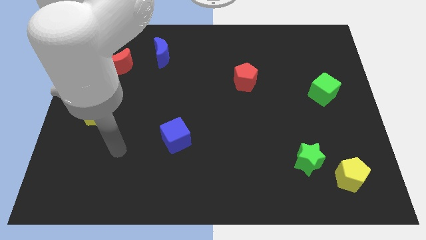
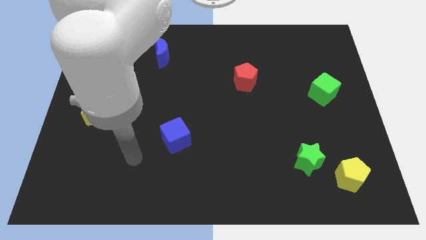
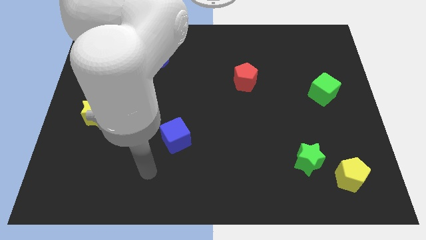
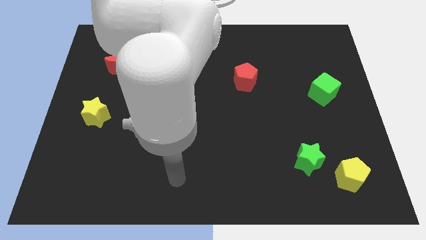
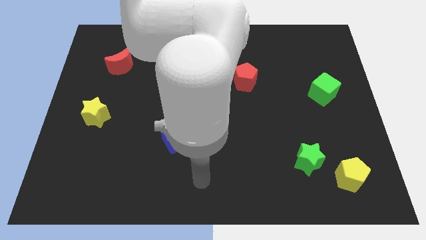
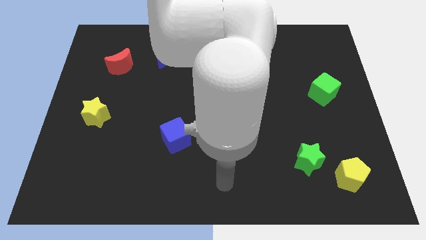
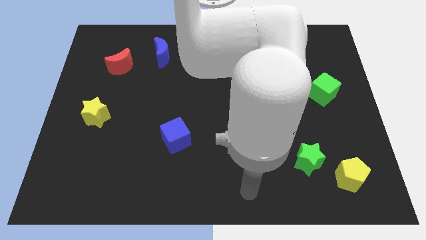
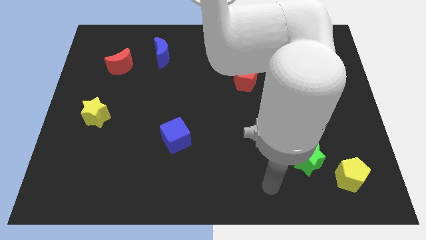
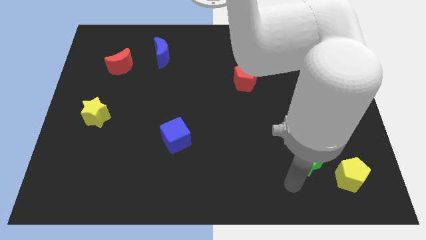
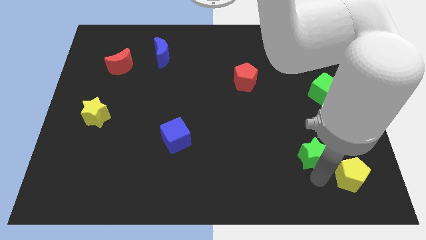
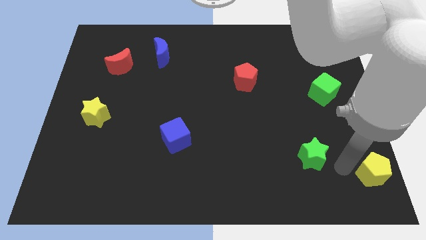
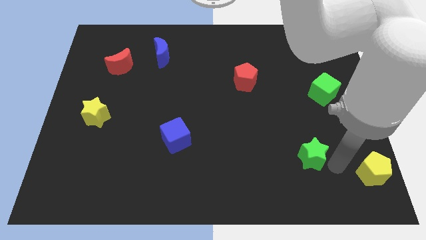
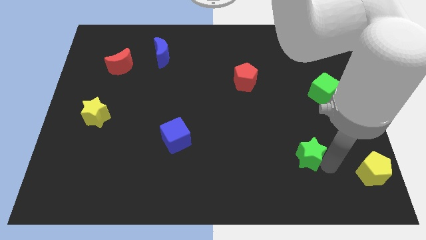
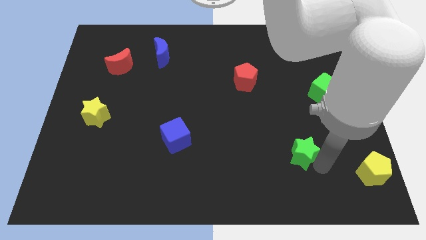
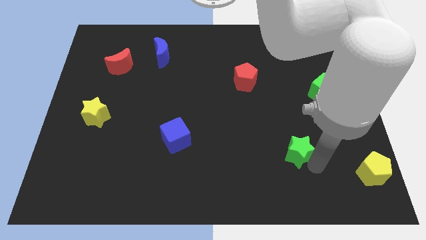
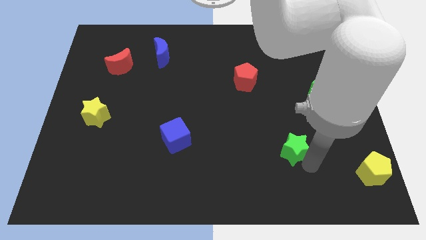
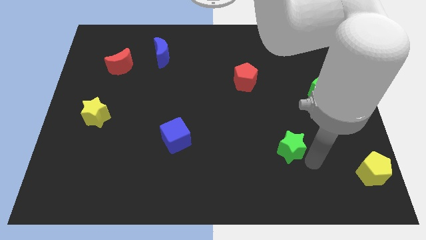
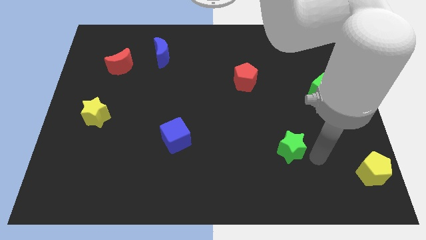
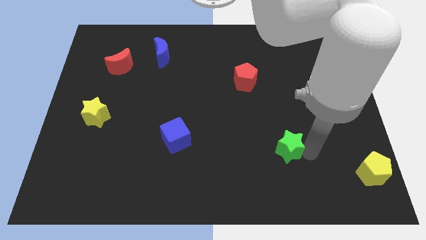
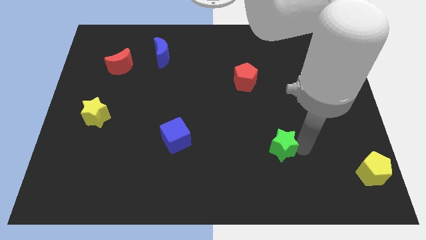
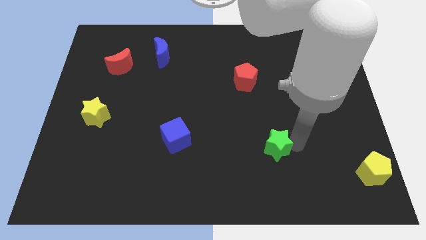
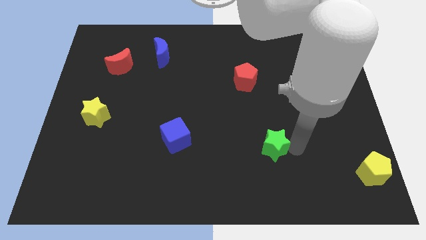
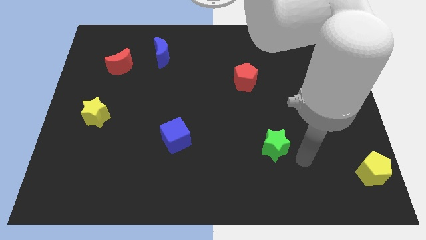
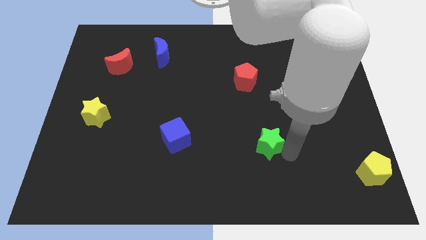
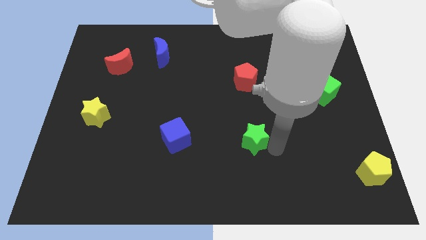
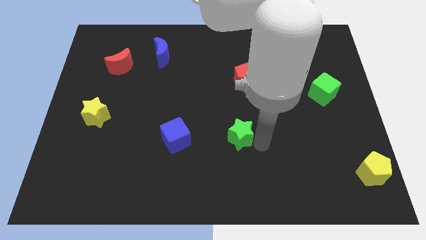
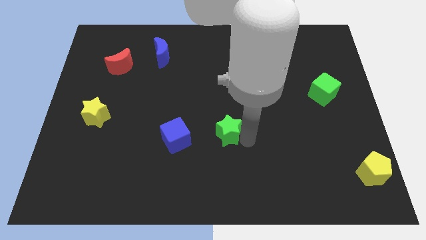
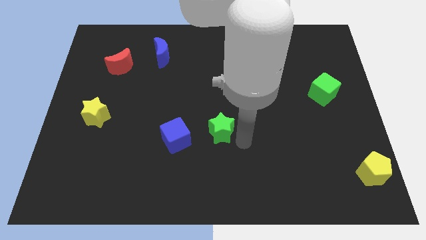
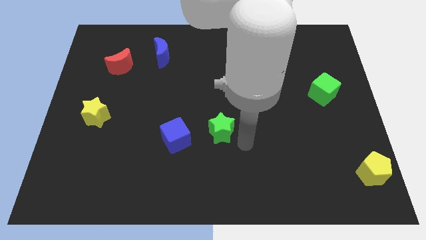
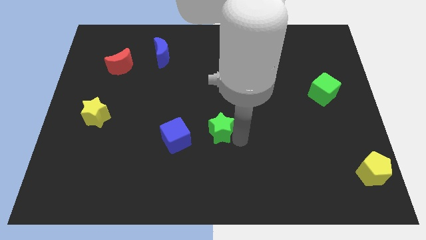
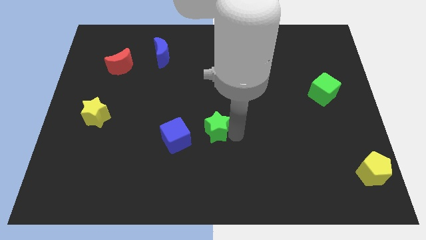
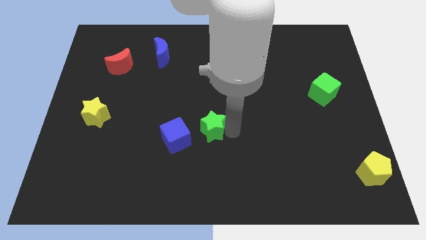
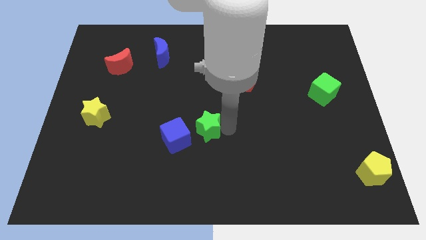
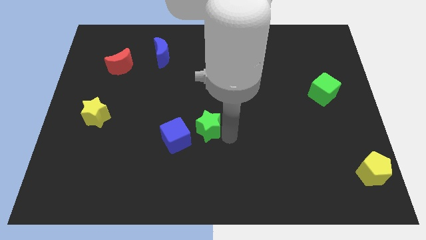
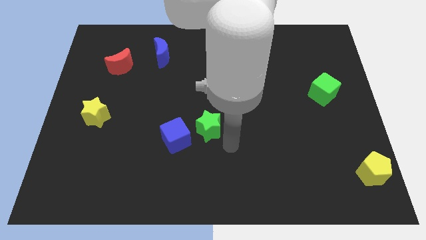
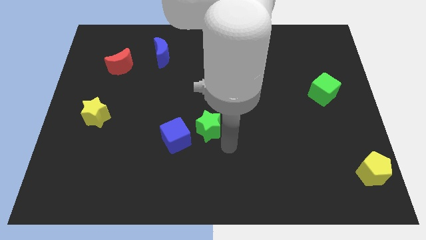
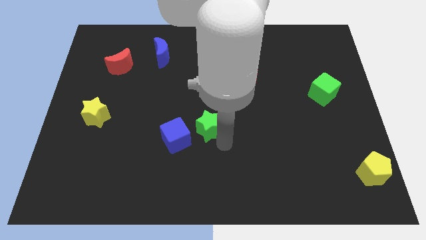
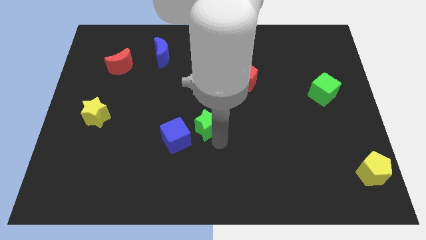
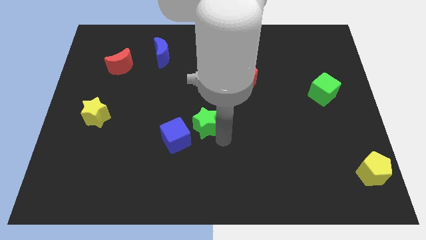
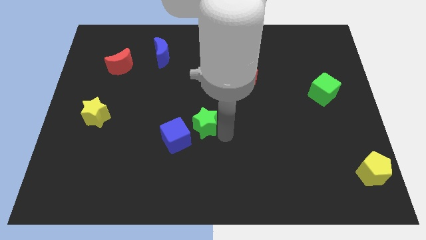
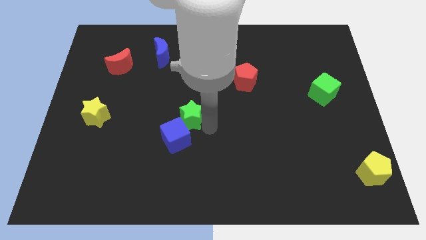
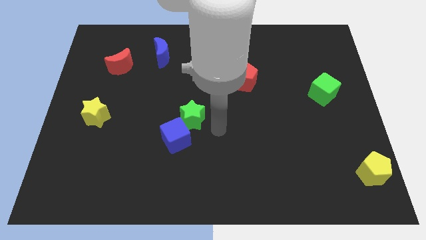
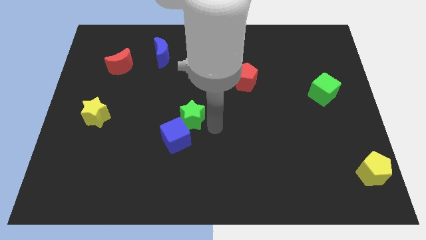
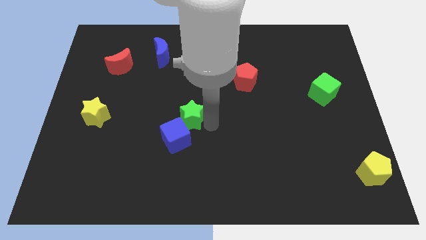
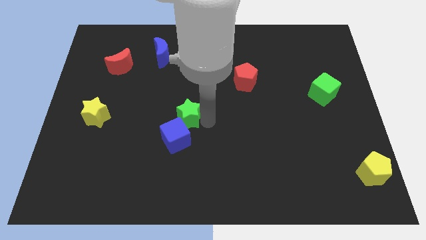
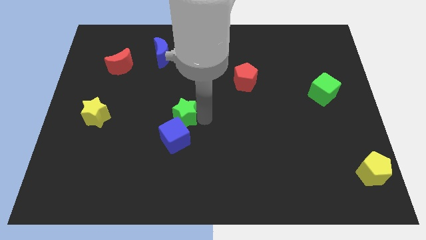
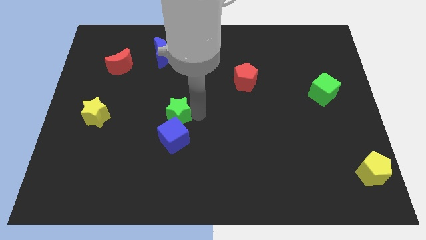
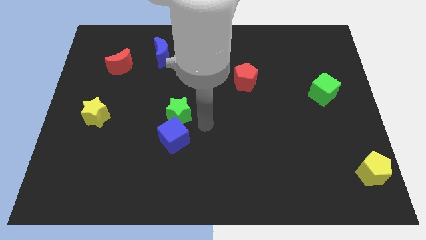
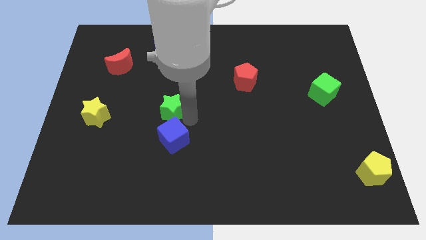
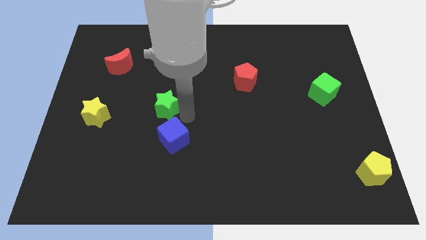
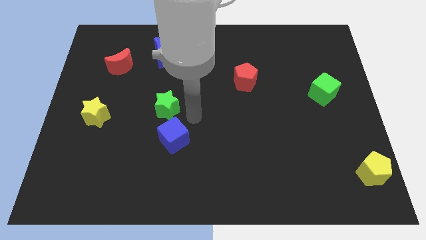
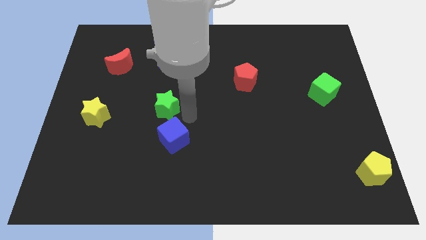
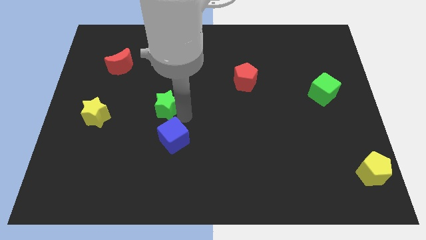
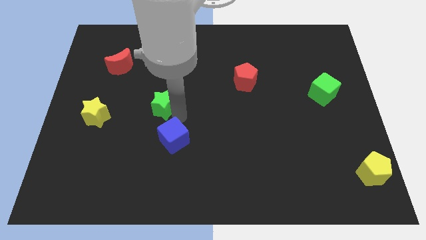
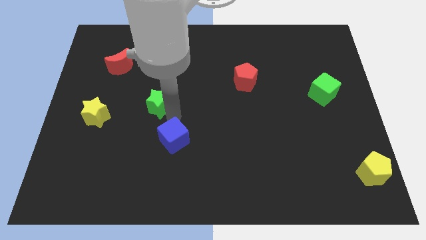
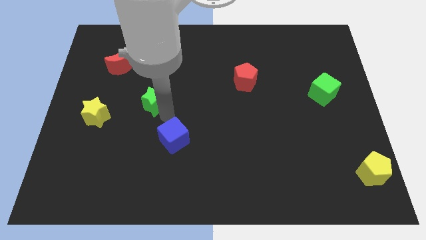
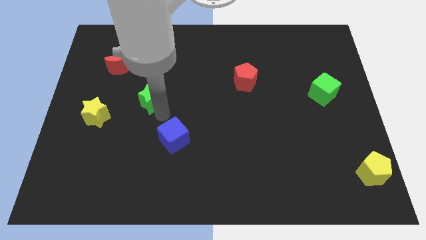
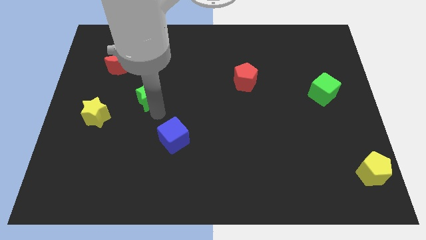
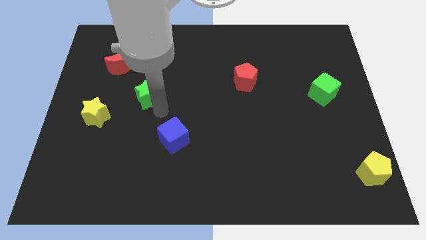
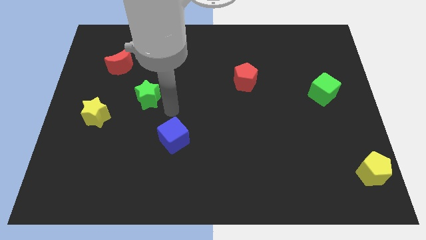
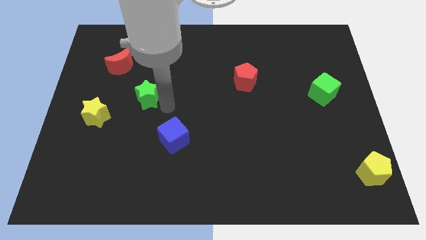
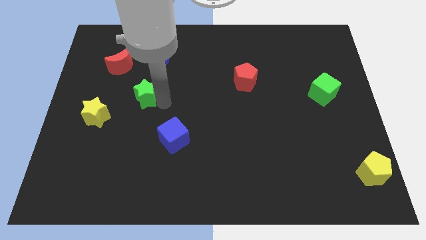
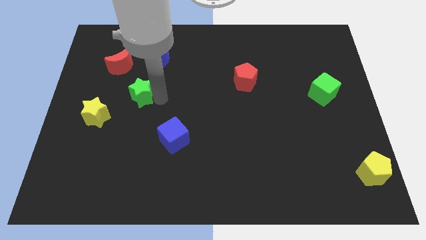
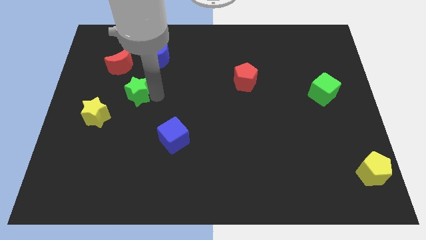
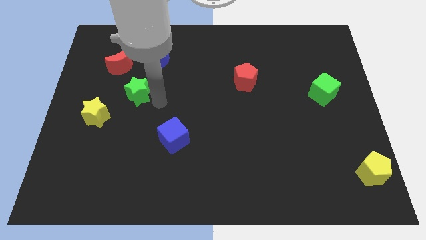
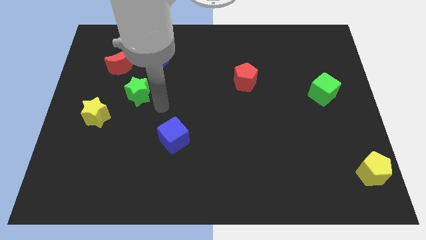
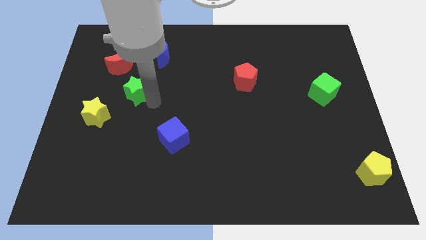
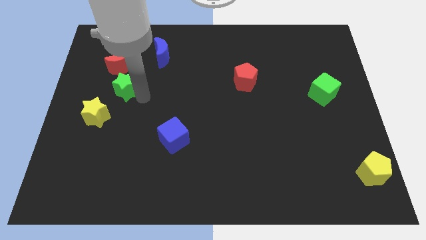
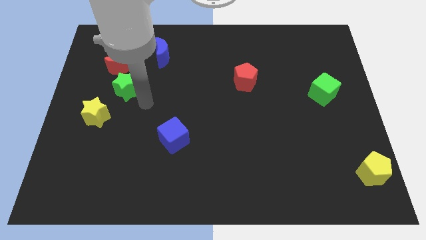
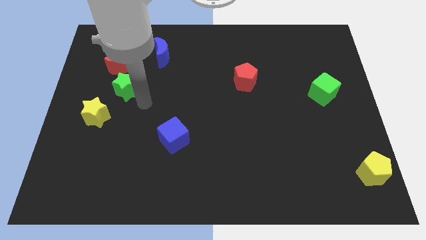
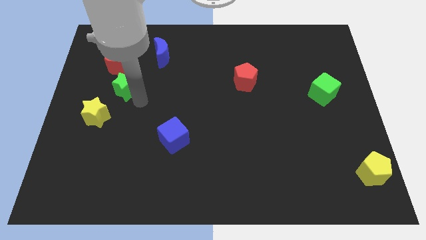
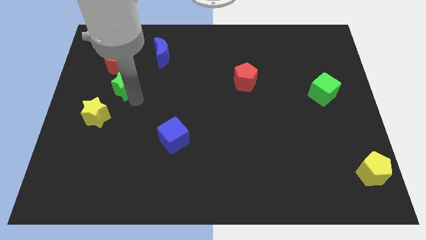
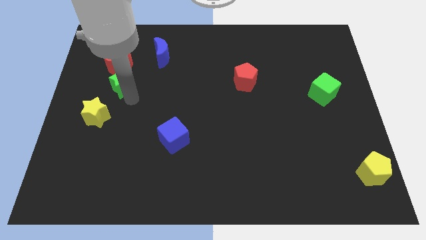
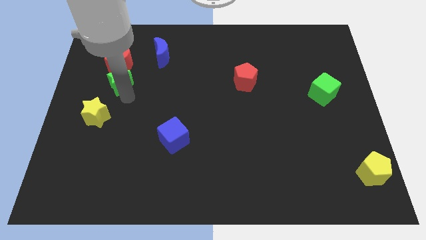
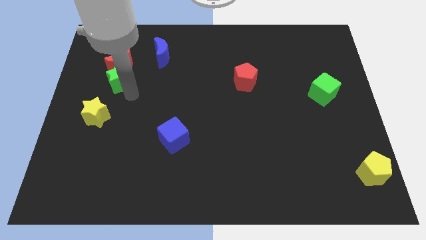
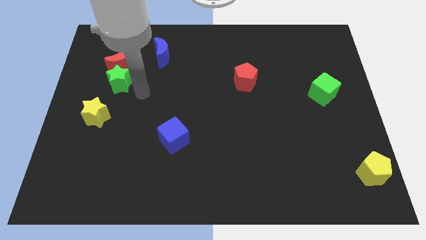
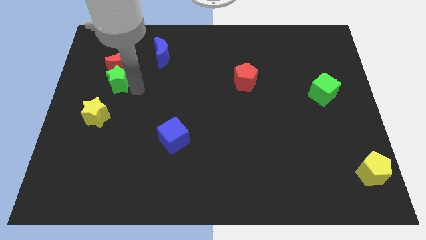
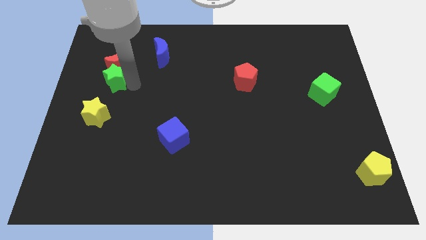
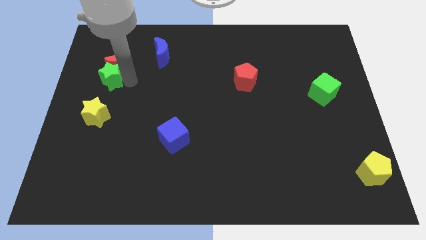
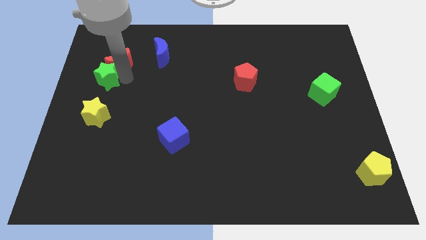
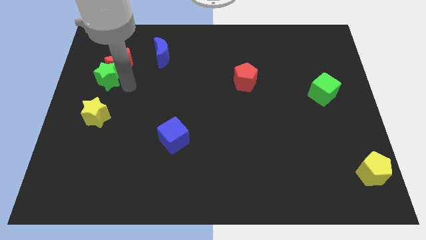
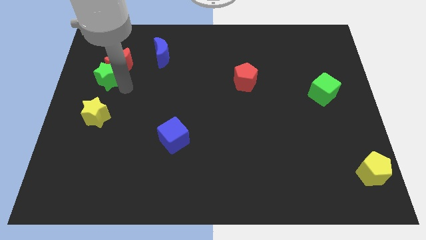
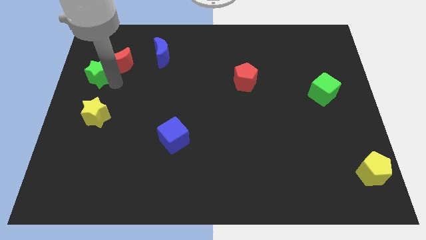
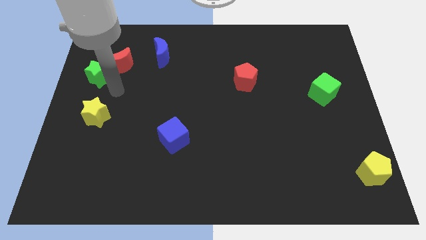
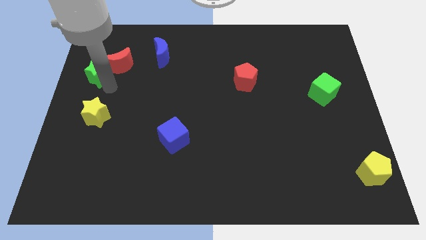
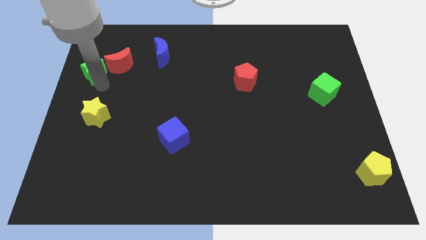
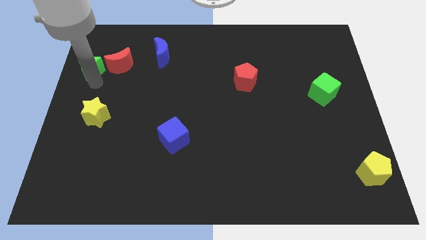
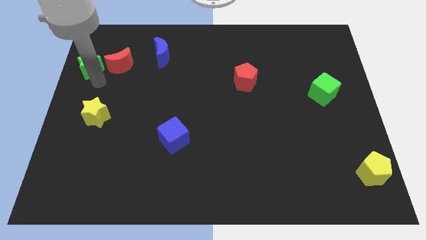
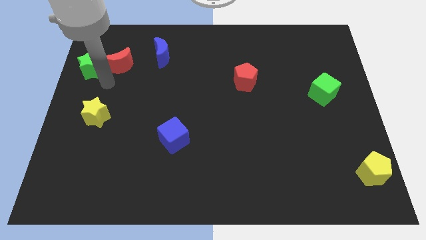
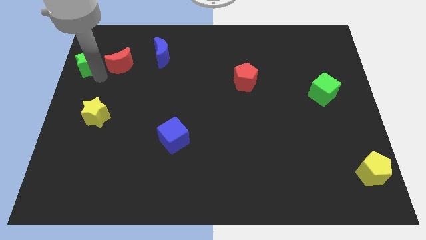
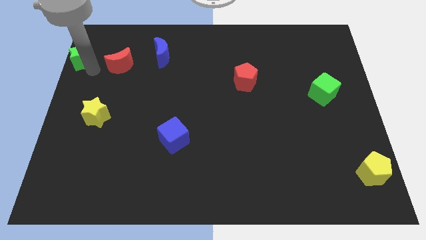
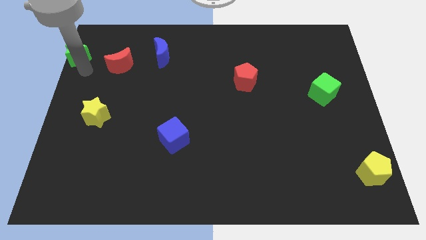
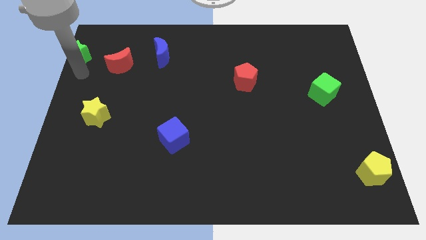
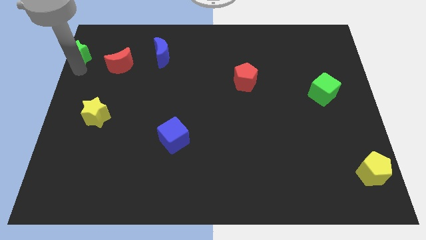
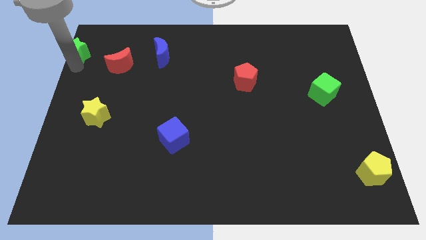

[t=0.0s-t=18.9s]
move the green star to the top left corner
